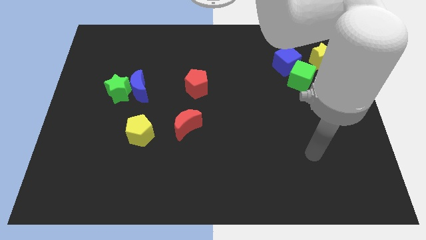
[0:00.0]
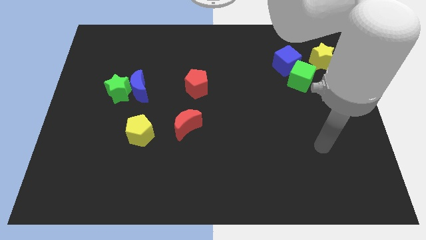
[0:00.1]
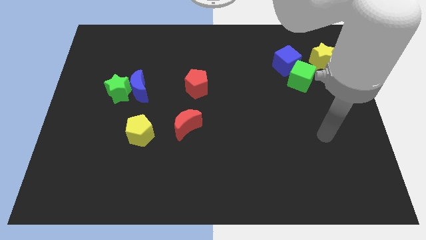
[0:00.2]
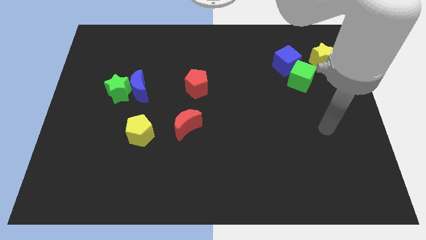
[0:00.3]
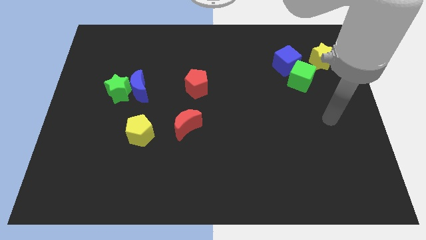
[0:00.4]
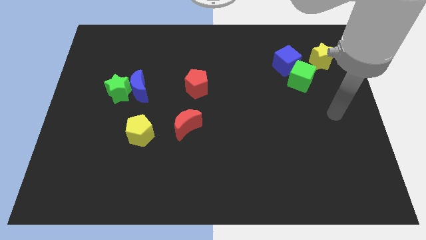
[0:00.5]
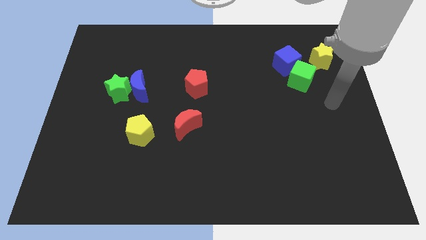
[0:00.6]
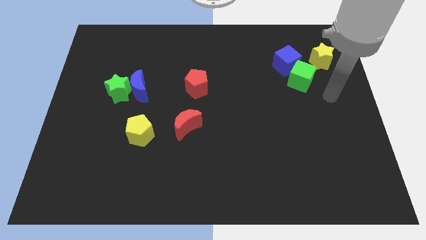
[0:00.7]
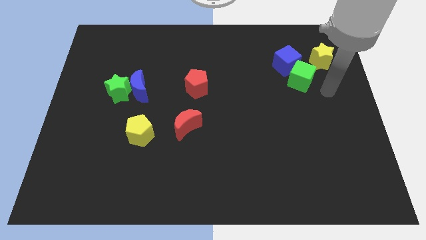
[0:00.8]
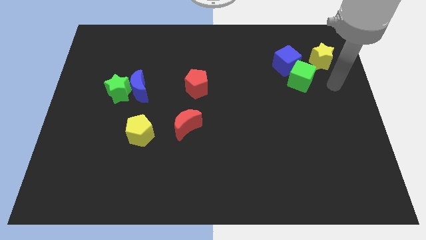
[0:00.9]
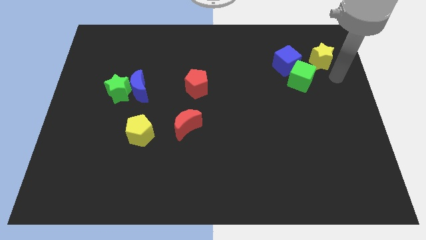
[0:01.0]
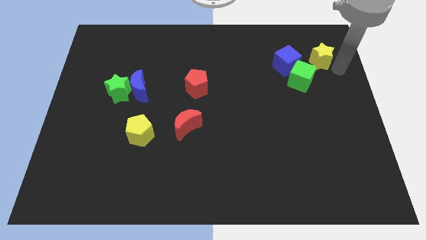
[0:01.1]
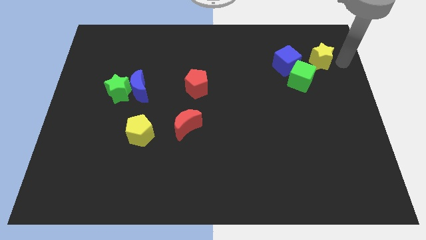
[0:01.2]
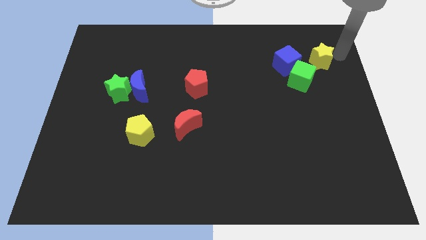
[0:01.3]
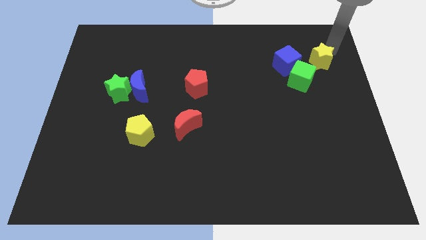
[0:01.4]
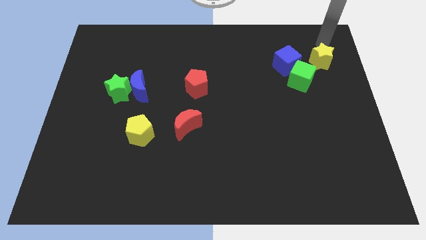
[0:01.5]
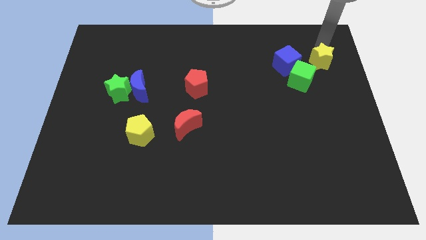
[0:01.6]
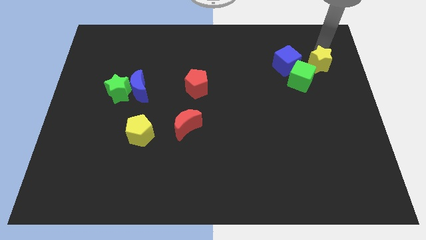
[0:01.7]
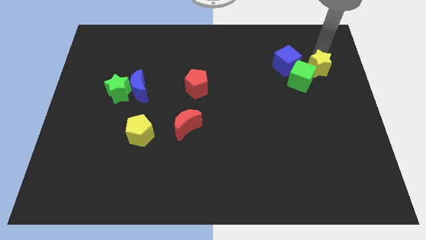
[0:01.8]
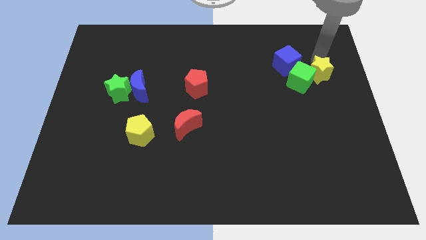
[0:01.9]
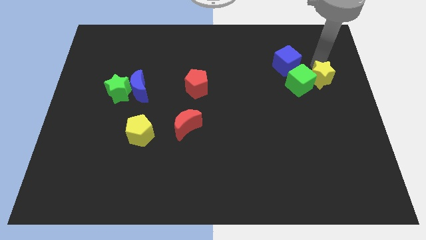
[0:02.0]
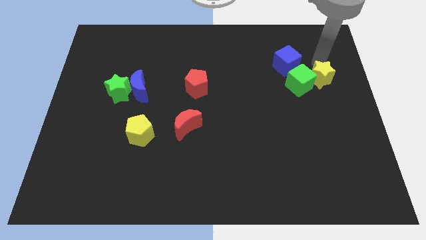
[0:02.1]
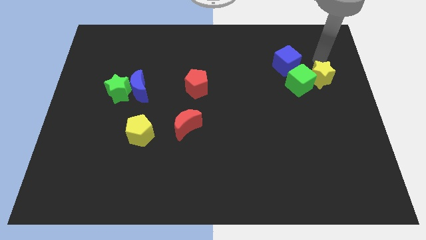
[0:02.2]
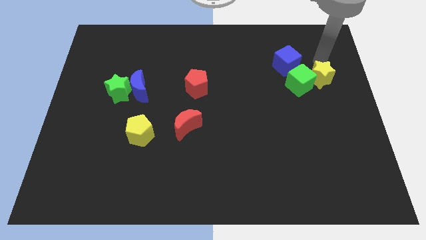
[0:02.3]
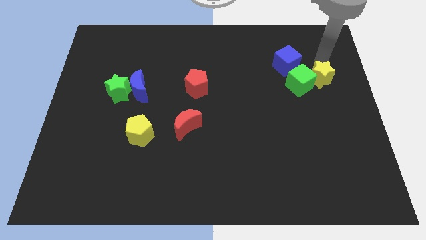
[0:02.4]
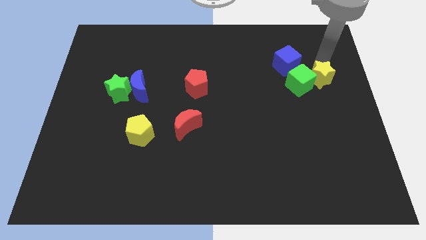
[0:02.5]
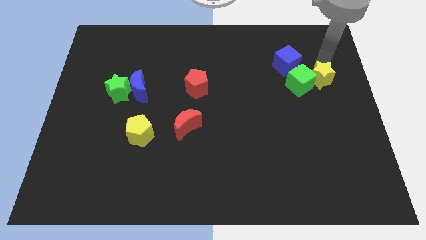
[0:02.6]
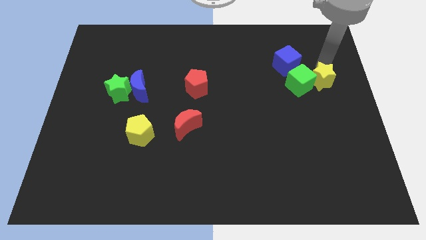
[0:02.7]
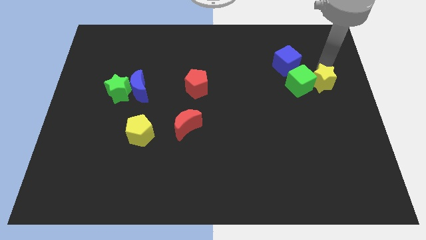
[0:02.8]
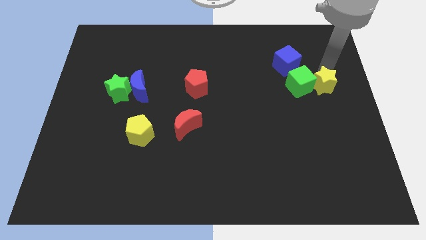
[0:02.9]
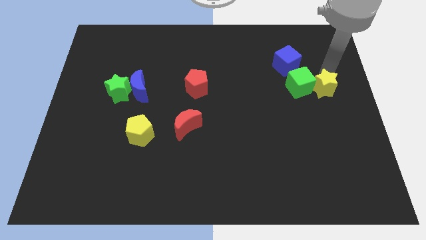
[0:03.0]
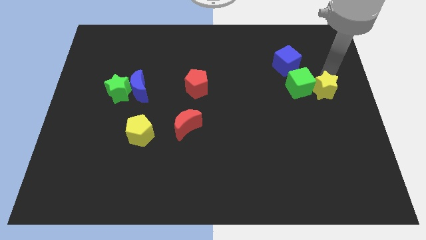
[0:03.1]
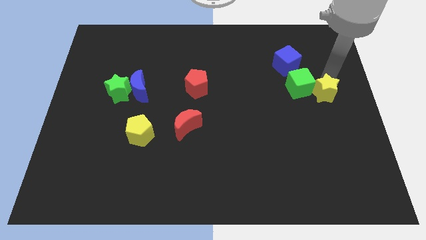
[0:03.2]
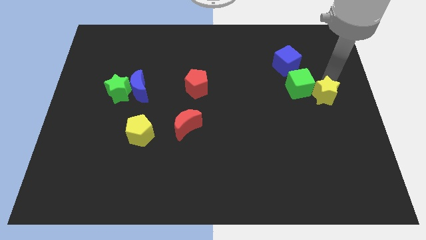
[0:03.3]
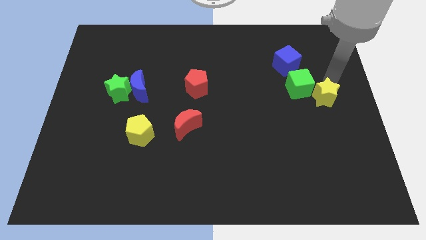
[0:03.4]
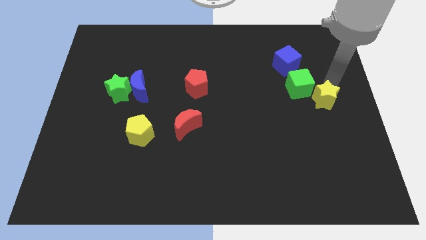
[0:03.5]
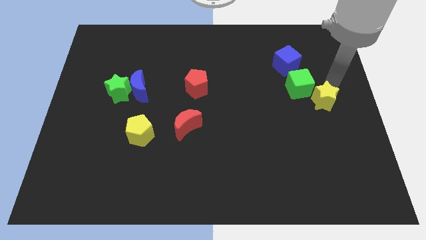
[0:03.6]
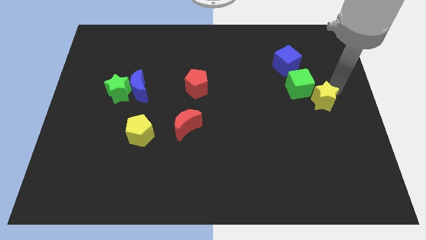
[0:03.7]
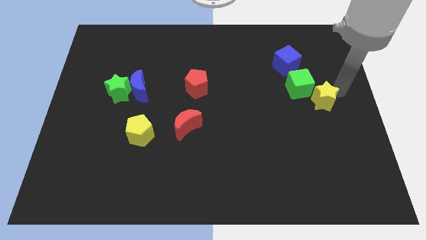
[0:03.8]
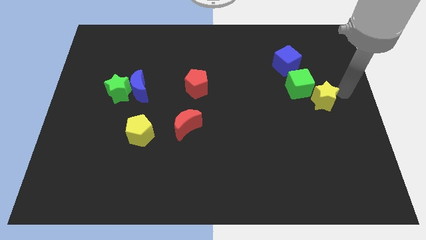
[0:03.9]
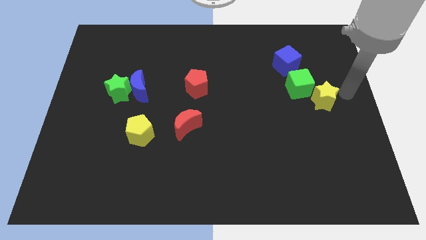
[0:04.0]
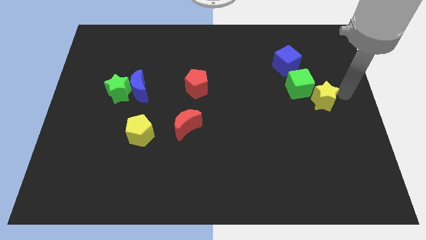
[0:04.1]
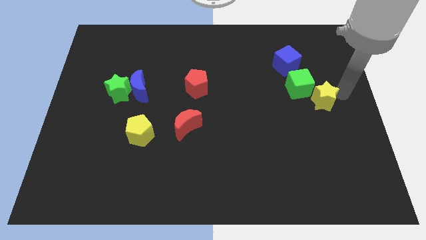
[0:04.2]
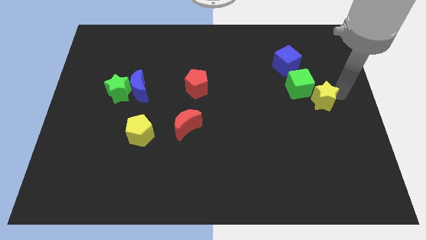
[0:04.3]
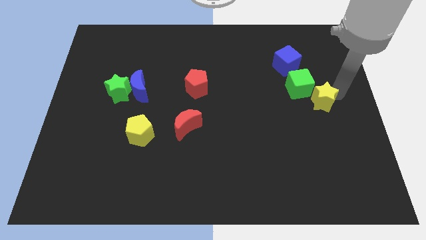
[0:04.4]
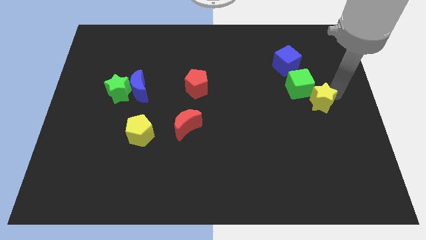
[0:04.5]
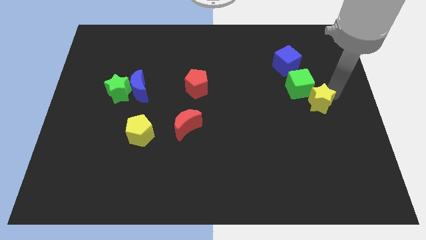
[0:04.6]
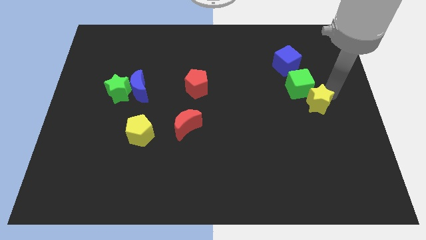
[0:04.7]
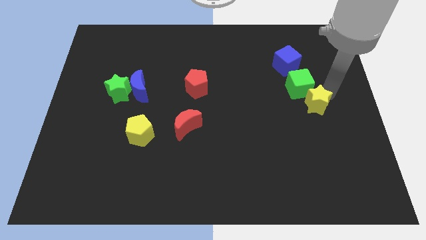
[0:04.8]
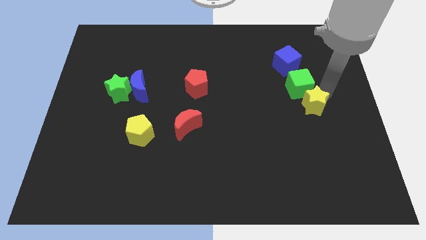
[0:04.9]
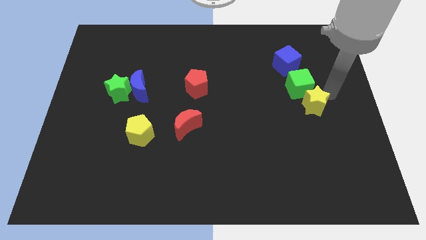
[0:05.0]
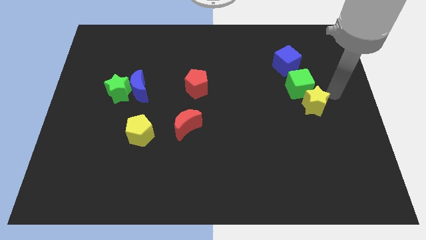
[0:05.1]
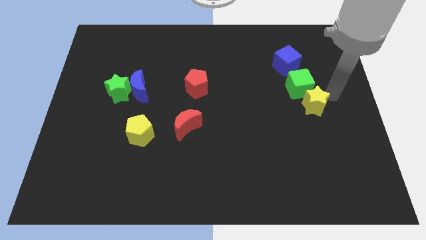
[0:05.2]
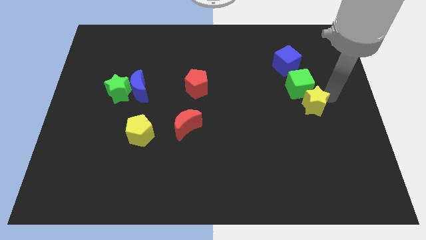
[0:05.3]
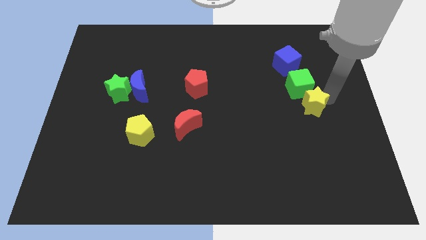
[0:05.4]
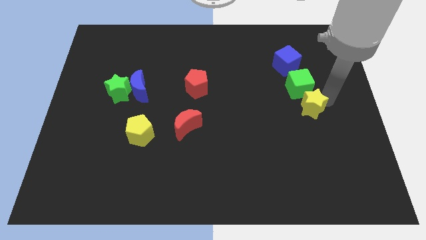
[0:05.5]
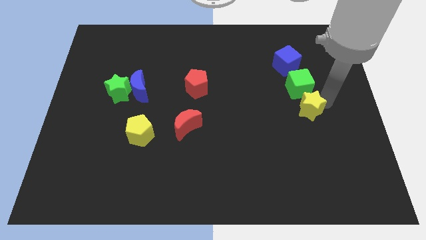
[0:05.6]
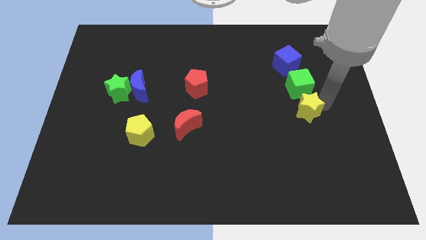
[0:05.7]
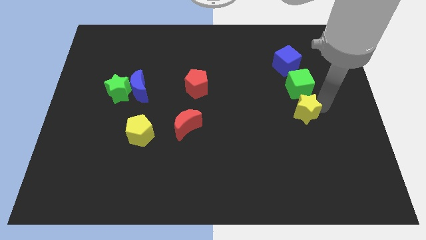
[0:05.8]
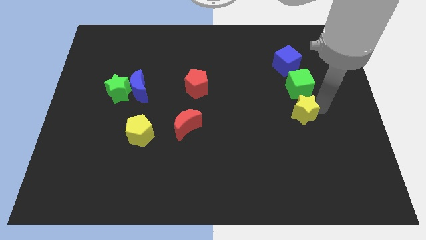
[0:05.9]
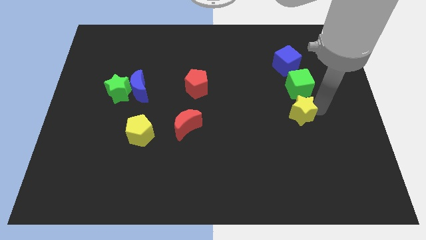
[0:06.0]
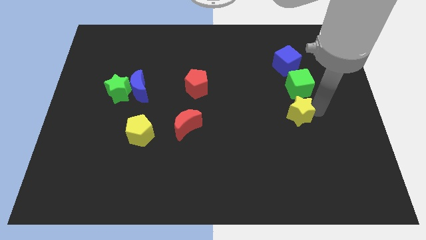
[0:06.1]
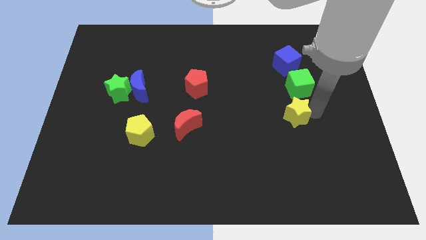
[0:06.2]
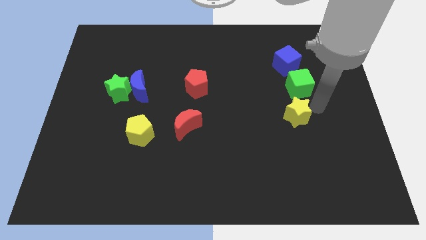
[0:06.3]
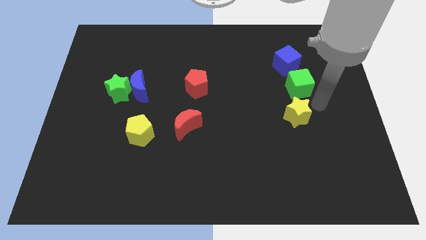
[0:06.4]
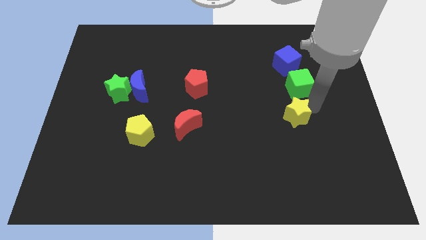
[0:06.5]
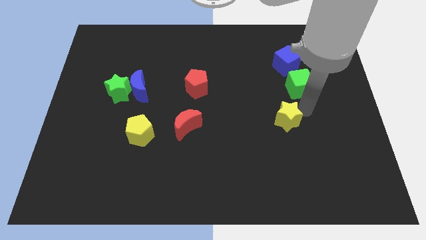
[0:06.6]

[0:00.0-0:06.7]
move the yellow star down and to the left diagonally

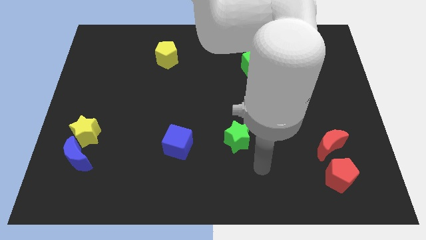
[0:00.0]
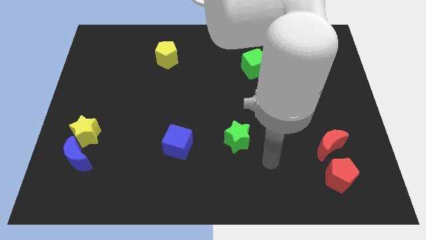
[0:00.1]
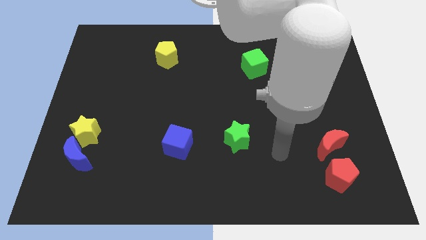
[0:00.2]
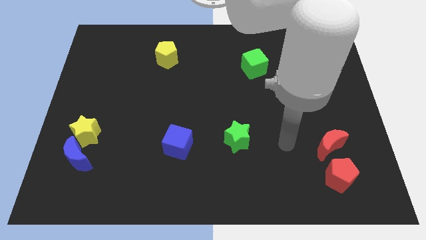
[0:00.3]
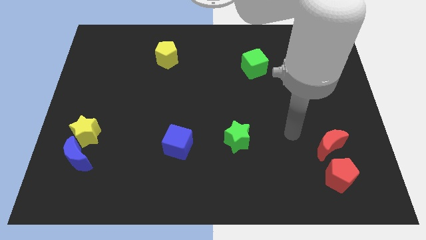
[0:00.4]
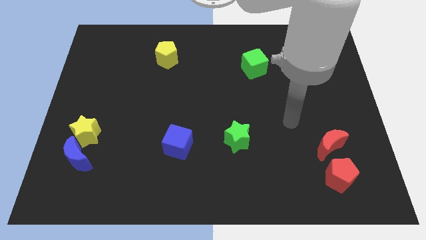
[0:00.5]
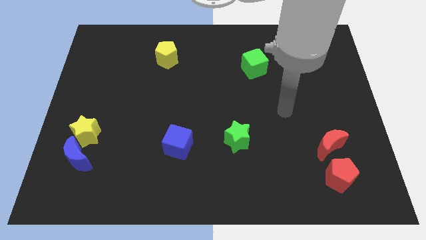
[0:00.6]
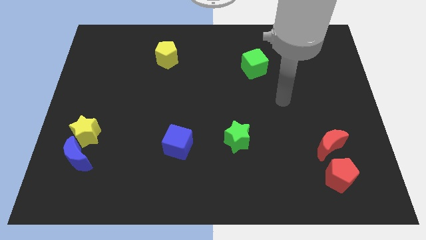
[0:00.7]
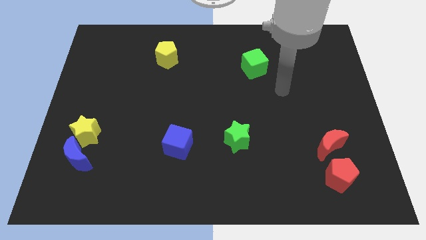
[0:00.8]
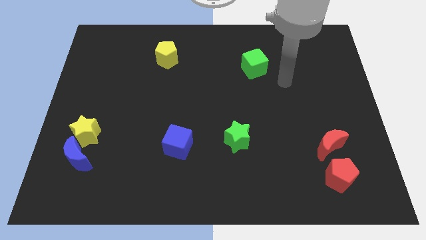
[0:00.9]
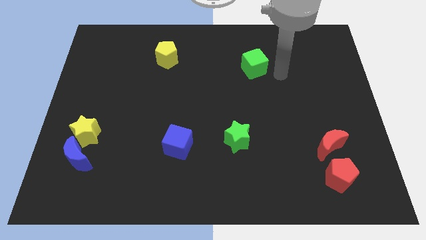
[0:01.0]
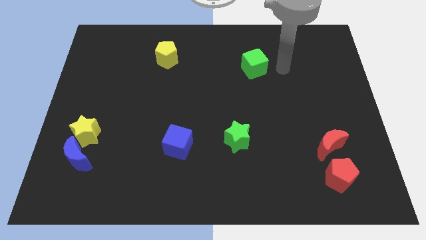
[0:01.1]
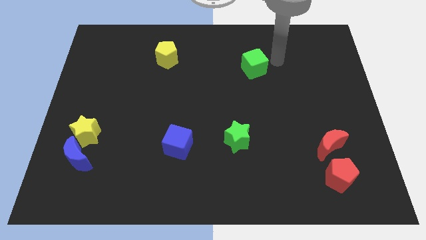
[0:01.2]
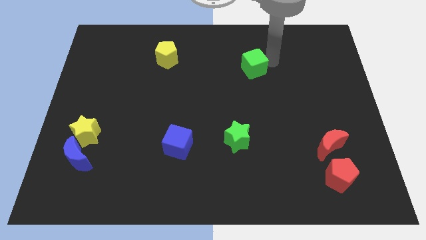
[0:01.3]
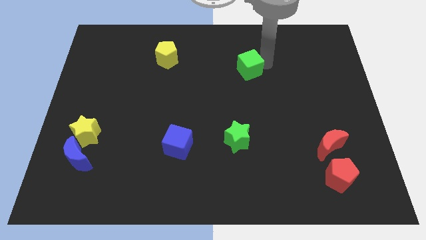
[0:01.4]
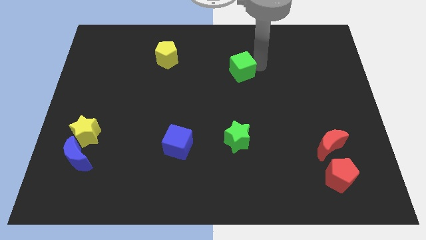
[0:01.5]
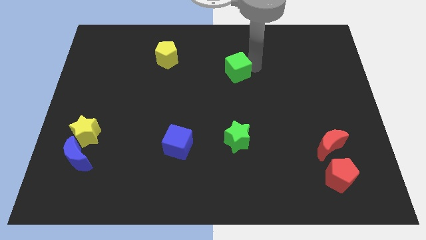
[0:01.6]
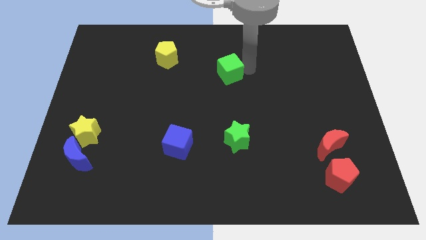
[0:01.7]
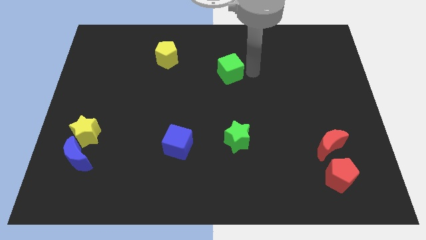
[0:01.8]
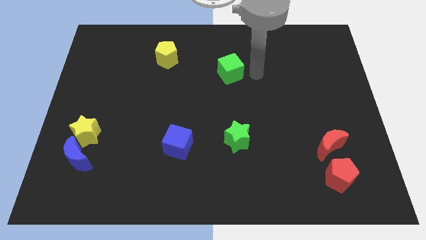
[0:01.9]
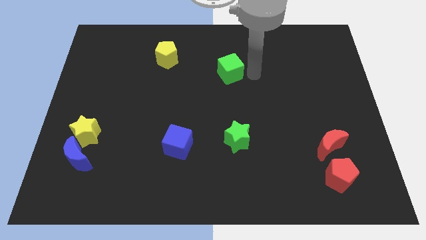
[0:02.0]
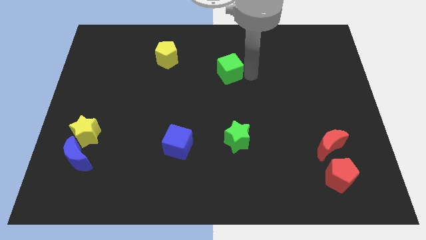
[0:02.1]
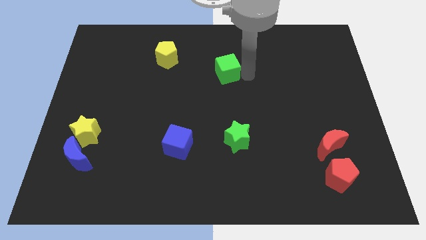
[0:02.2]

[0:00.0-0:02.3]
move the green cube to the left a little bit
